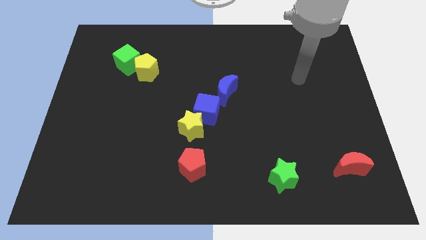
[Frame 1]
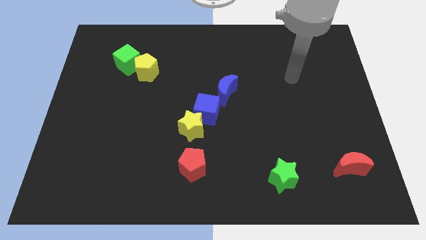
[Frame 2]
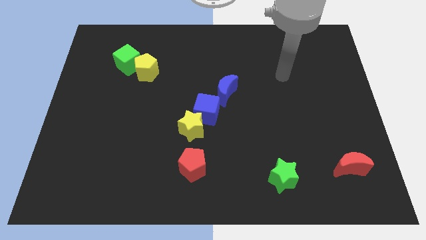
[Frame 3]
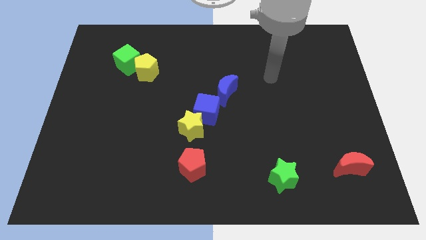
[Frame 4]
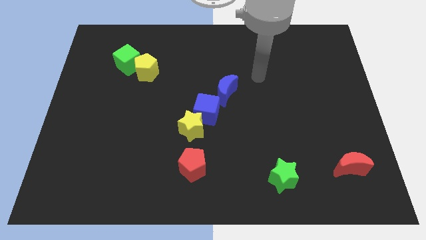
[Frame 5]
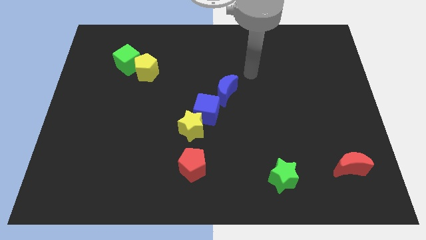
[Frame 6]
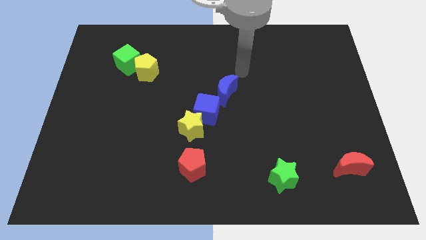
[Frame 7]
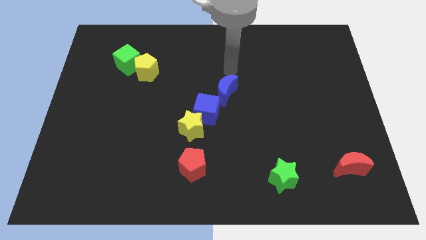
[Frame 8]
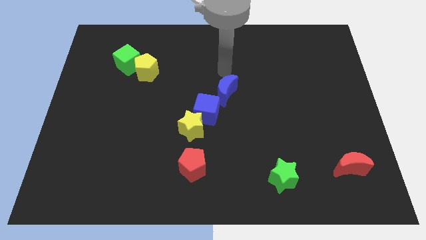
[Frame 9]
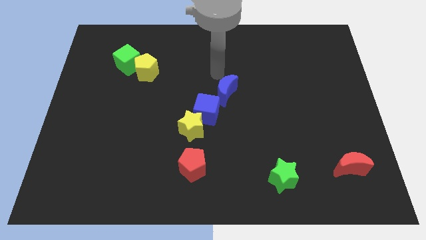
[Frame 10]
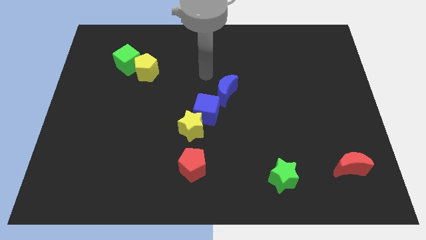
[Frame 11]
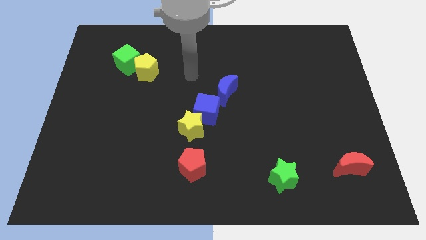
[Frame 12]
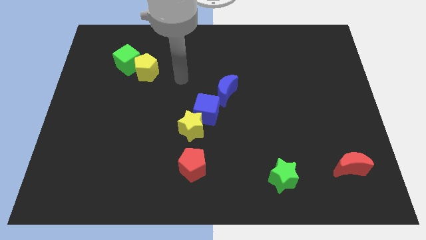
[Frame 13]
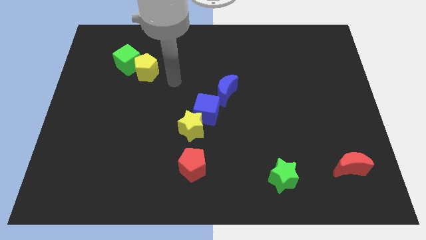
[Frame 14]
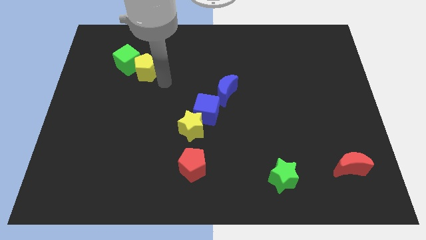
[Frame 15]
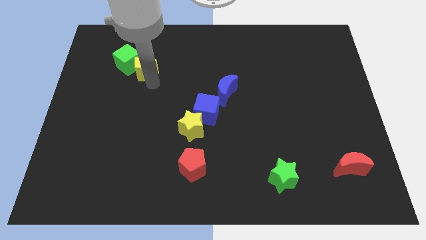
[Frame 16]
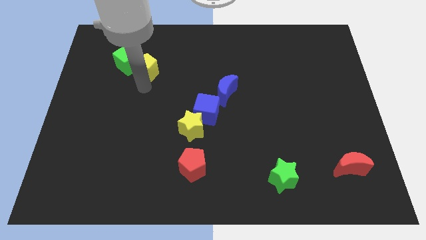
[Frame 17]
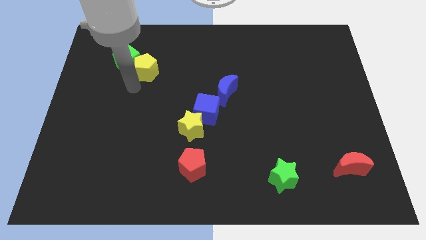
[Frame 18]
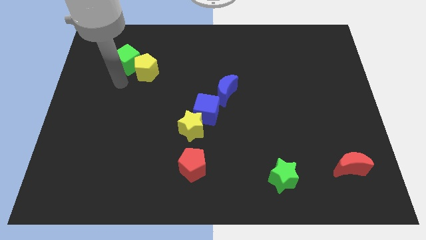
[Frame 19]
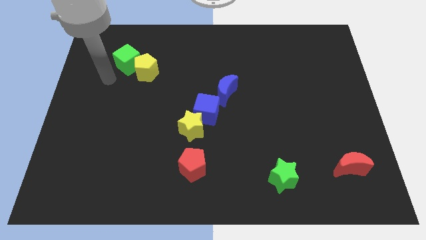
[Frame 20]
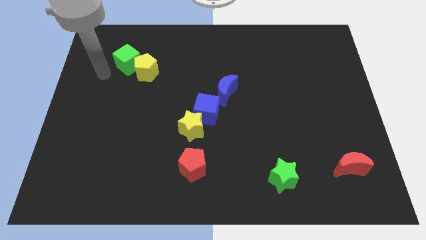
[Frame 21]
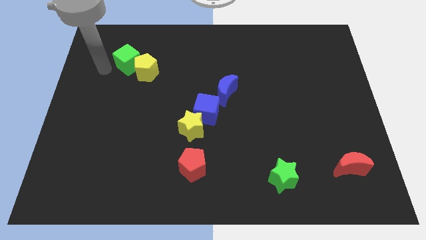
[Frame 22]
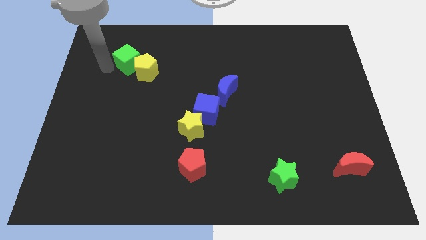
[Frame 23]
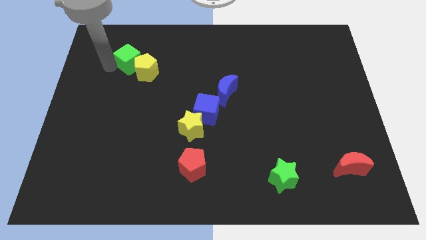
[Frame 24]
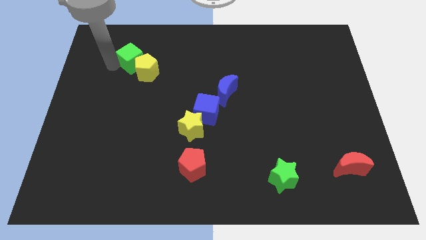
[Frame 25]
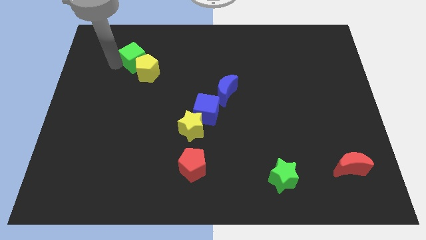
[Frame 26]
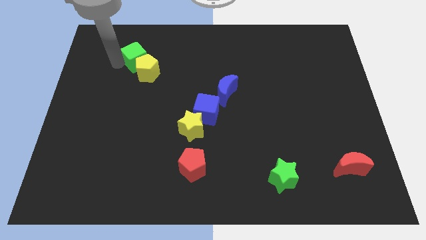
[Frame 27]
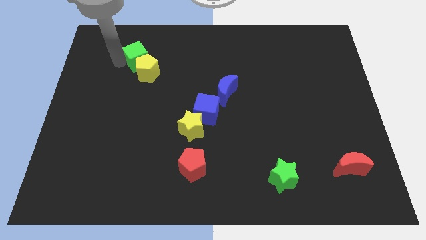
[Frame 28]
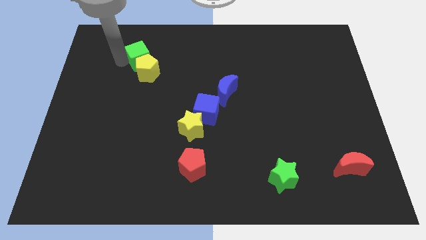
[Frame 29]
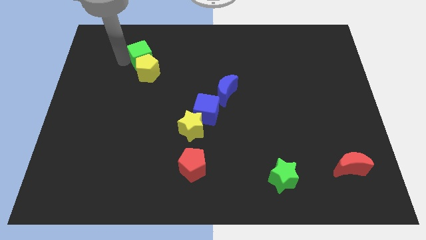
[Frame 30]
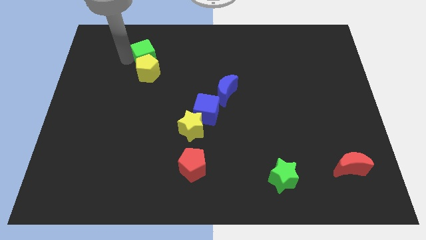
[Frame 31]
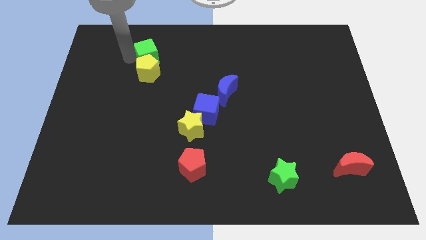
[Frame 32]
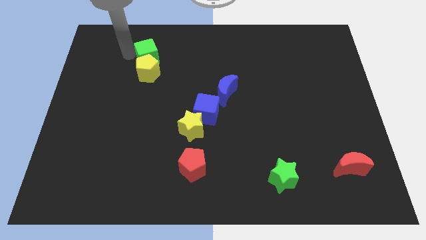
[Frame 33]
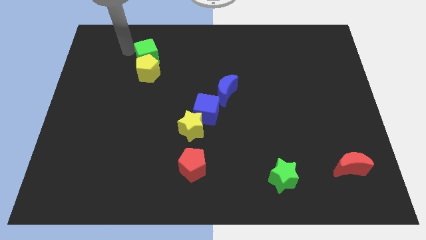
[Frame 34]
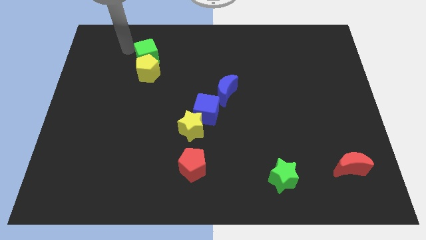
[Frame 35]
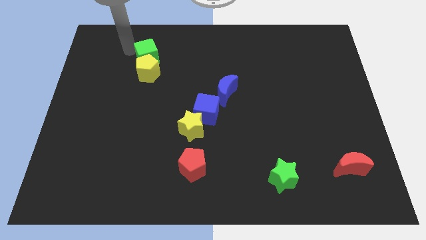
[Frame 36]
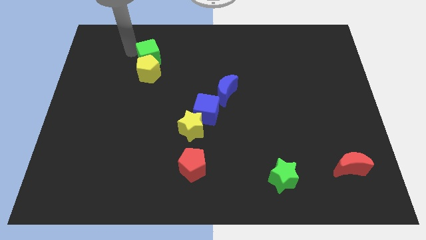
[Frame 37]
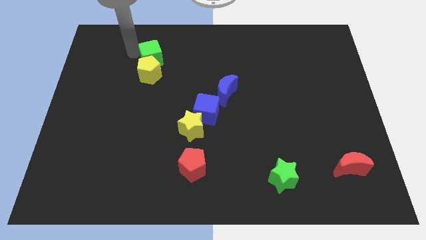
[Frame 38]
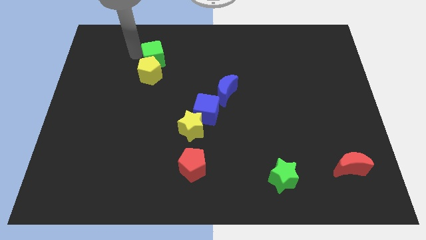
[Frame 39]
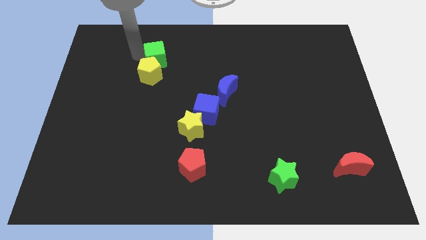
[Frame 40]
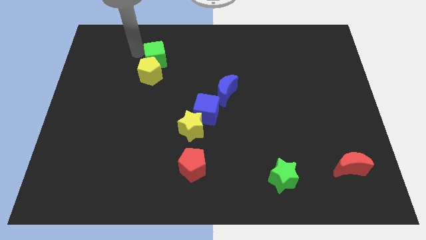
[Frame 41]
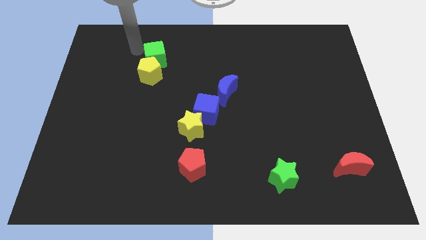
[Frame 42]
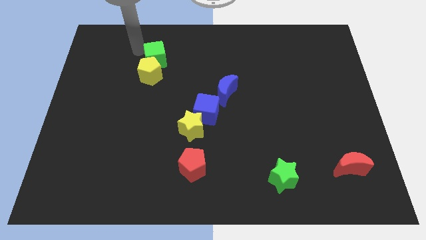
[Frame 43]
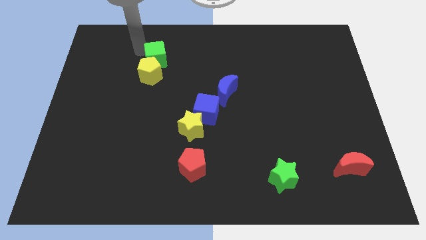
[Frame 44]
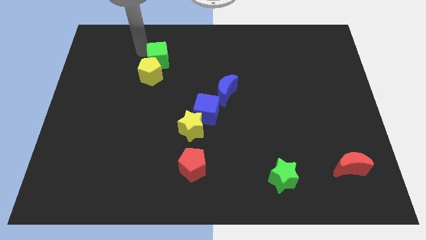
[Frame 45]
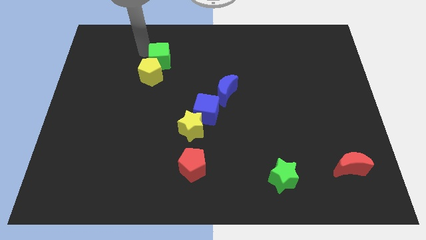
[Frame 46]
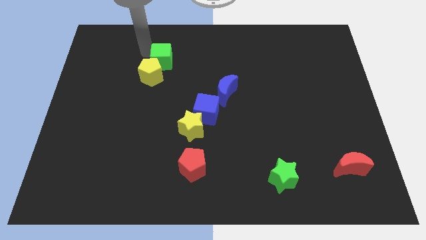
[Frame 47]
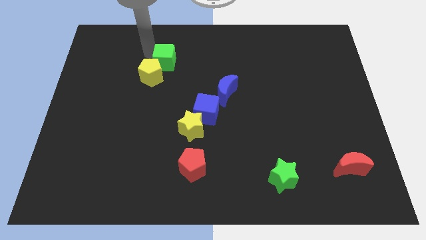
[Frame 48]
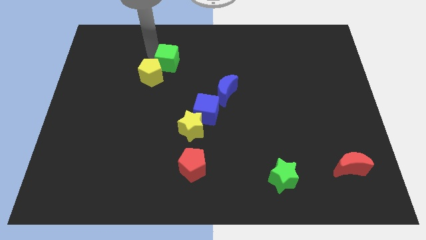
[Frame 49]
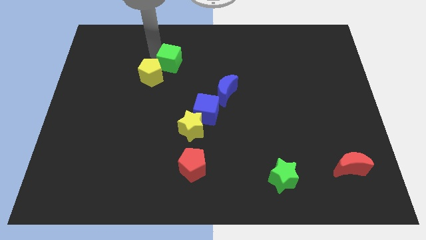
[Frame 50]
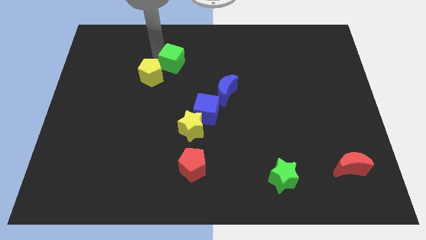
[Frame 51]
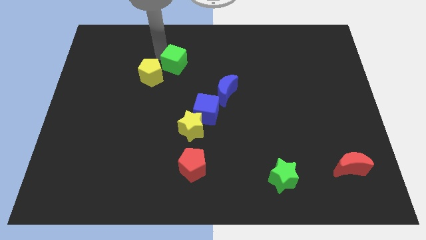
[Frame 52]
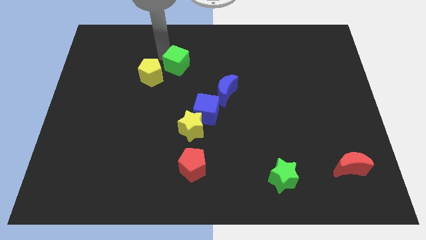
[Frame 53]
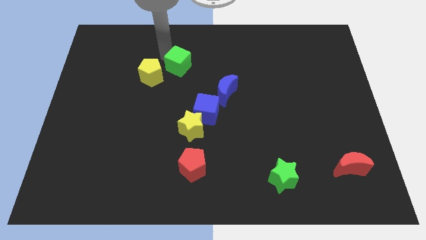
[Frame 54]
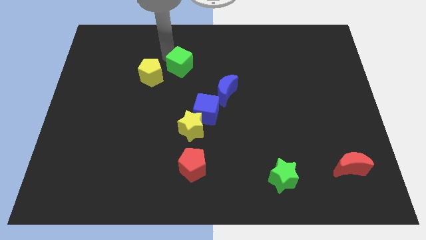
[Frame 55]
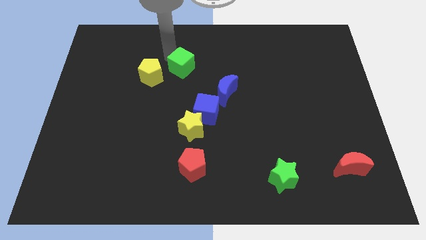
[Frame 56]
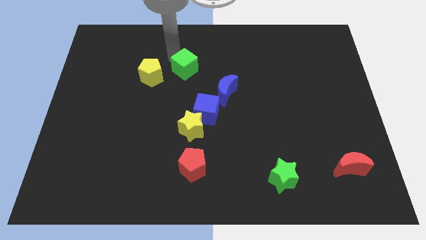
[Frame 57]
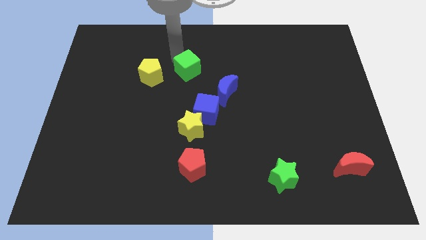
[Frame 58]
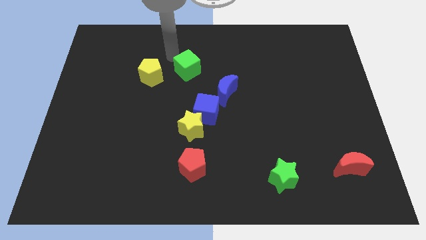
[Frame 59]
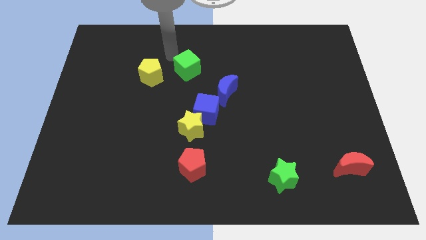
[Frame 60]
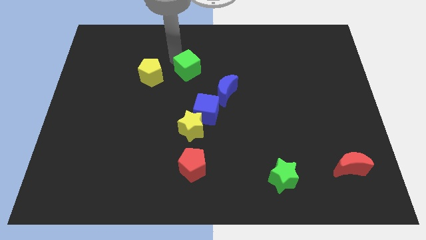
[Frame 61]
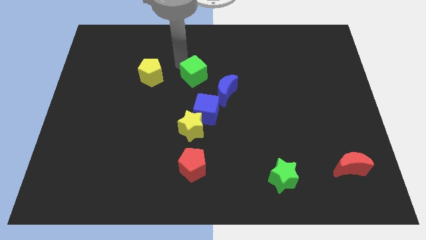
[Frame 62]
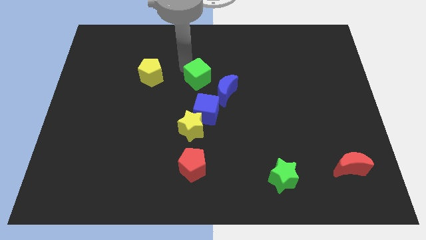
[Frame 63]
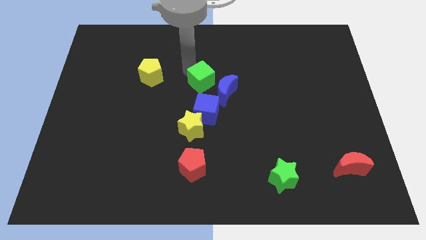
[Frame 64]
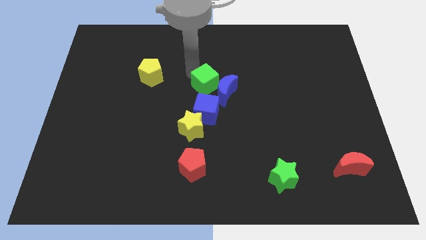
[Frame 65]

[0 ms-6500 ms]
slide the green cube close to the blue moon
